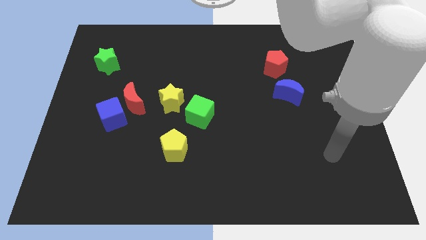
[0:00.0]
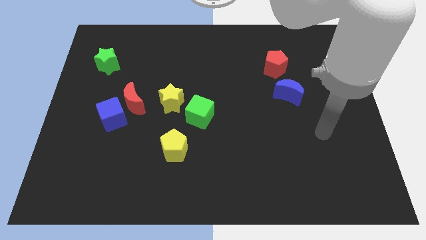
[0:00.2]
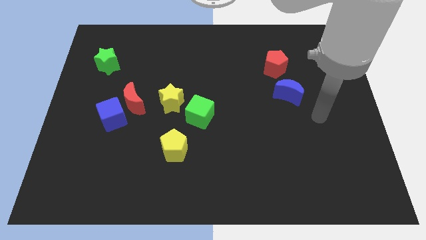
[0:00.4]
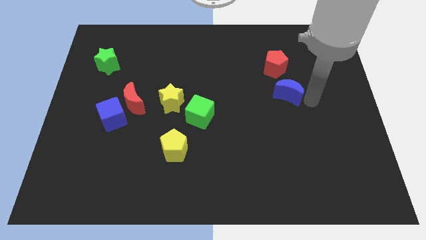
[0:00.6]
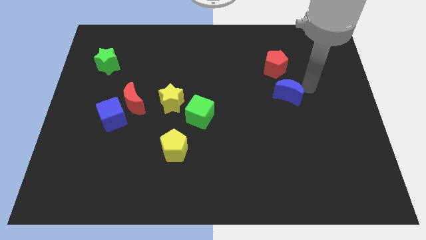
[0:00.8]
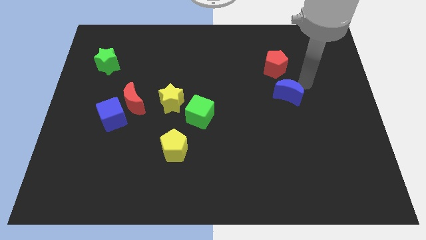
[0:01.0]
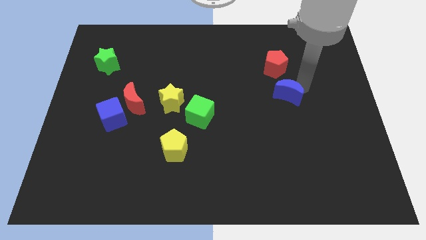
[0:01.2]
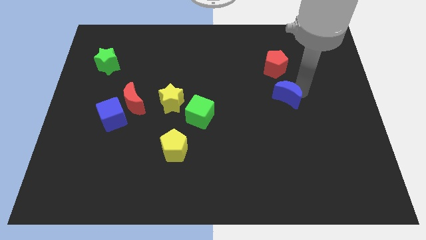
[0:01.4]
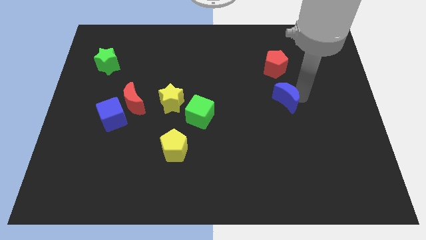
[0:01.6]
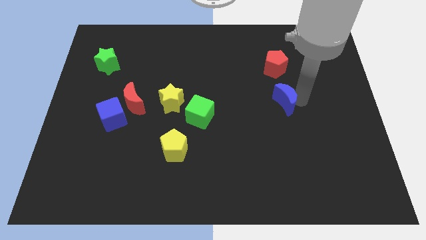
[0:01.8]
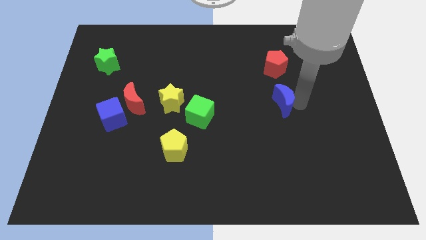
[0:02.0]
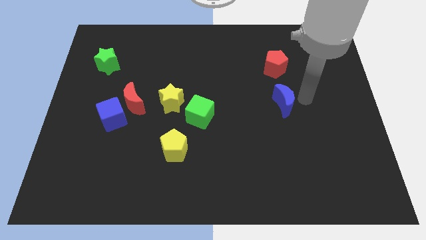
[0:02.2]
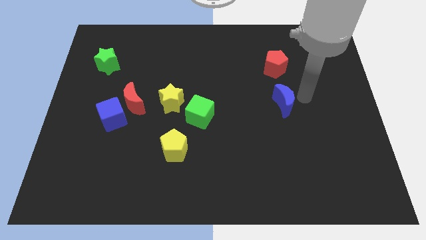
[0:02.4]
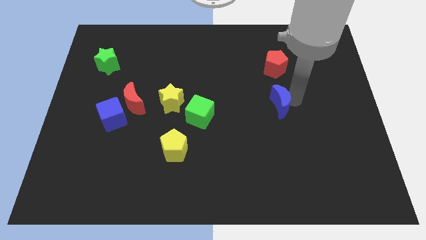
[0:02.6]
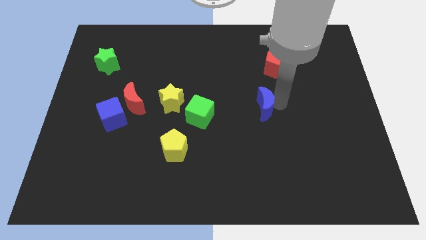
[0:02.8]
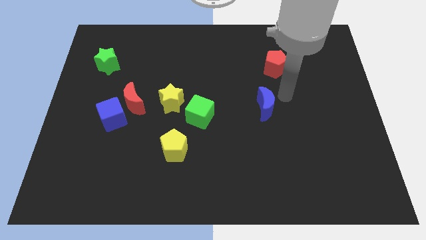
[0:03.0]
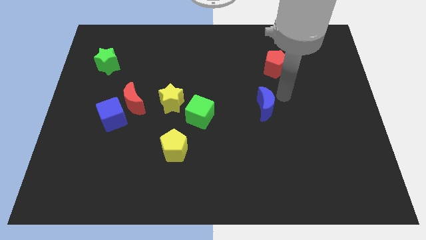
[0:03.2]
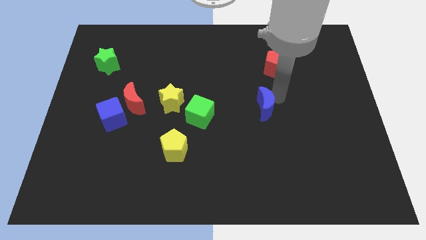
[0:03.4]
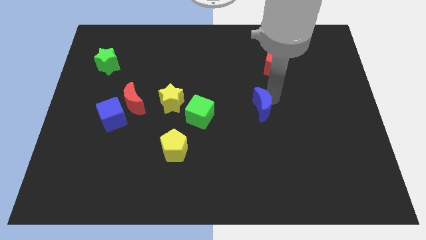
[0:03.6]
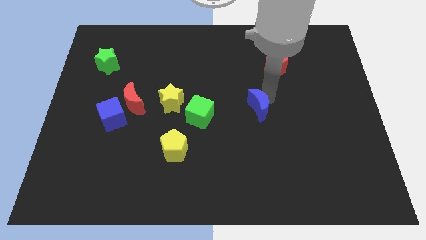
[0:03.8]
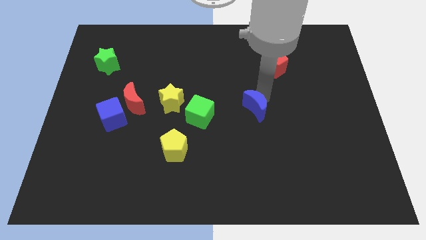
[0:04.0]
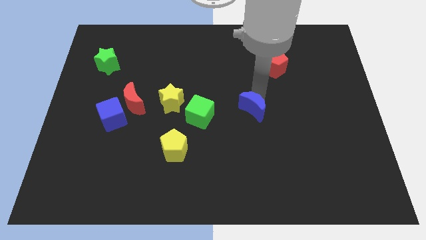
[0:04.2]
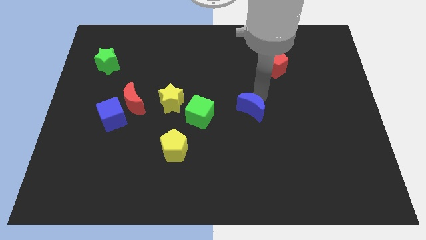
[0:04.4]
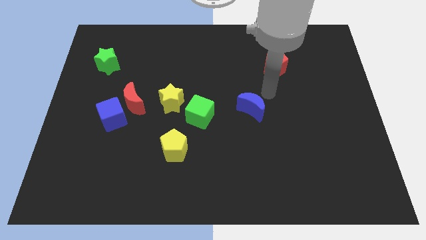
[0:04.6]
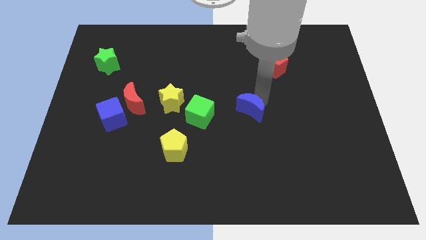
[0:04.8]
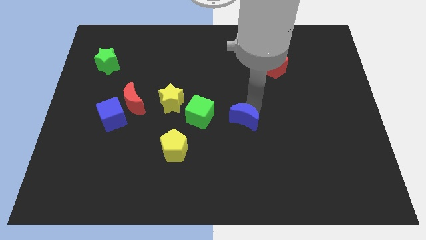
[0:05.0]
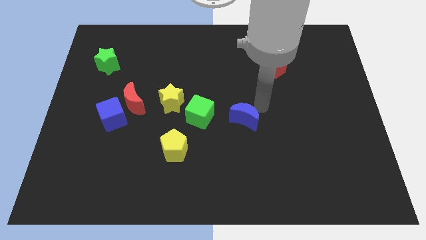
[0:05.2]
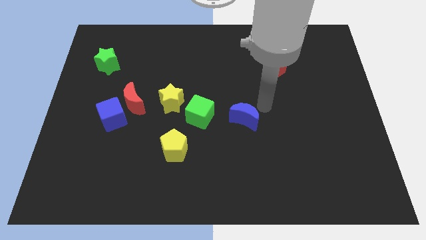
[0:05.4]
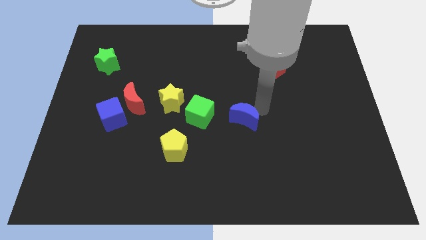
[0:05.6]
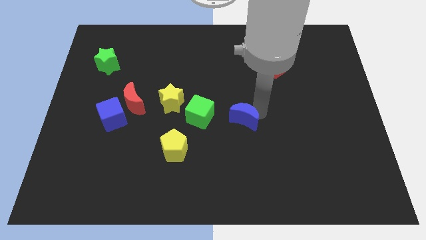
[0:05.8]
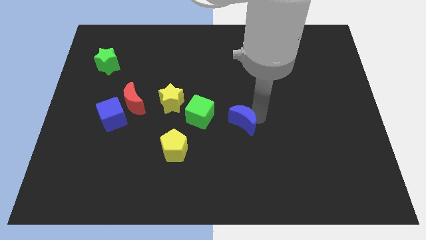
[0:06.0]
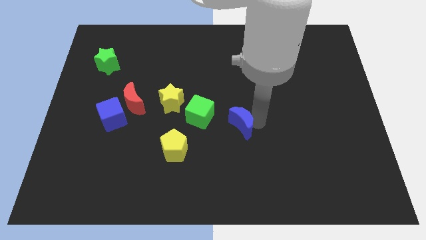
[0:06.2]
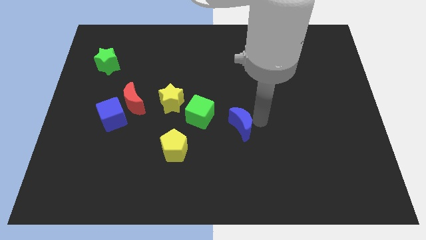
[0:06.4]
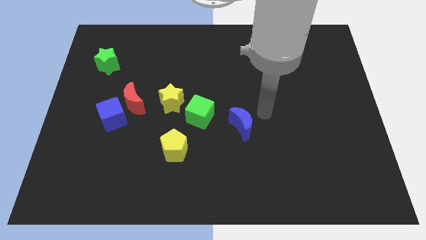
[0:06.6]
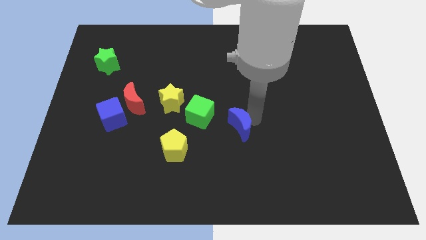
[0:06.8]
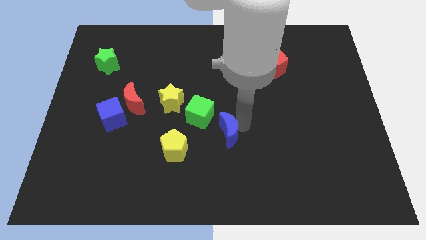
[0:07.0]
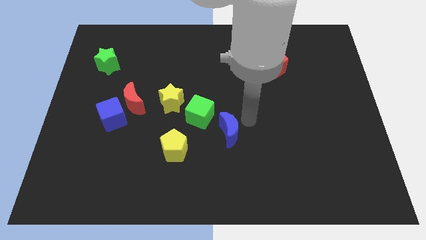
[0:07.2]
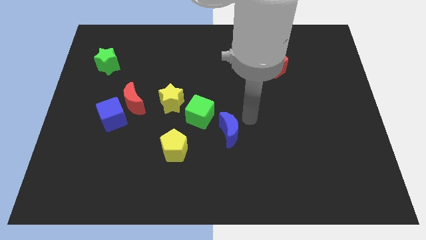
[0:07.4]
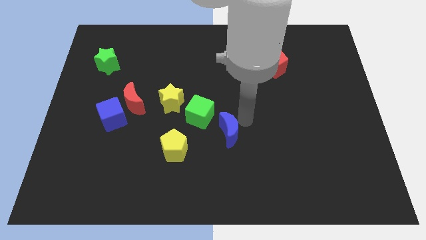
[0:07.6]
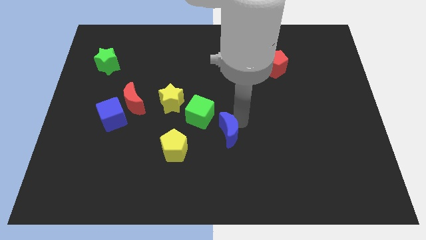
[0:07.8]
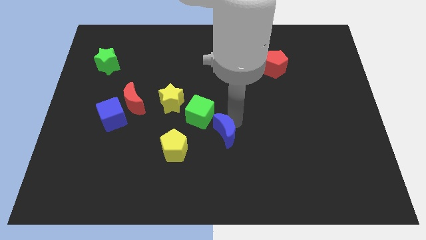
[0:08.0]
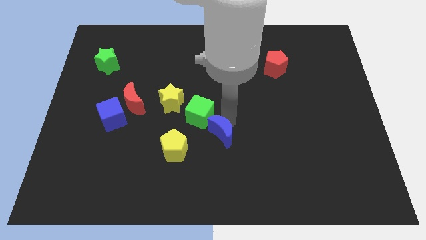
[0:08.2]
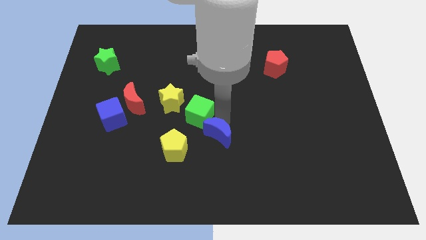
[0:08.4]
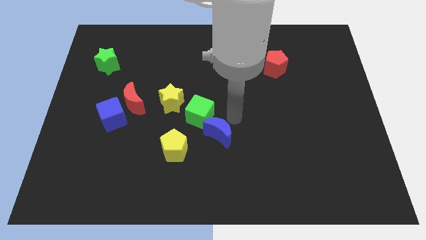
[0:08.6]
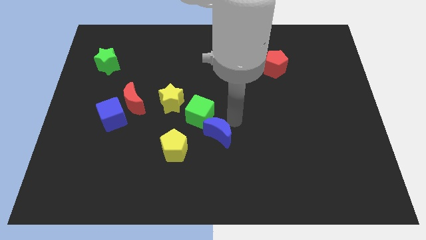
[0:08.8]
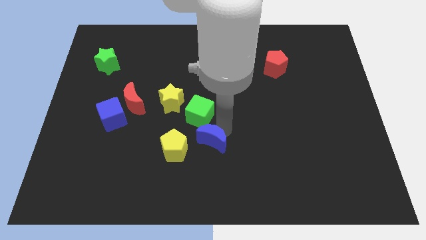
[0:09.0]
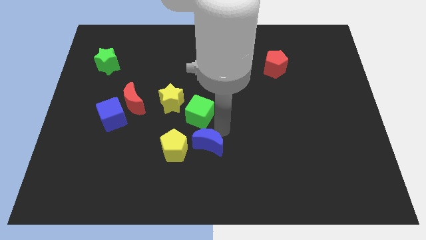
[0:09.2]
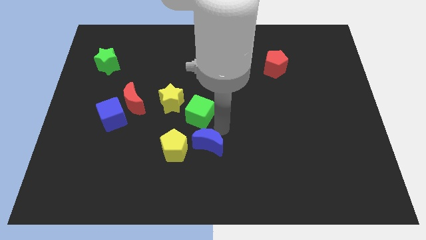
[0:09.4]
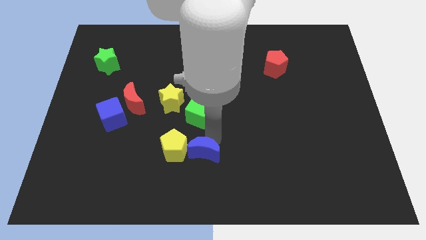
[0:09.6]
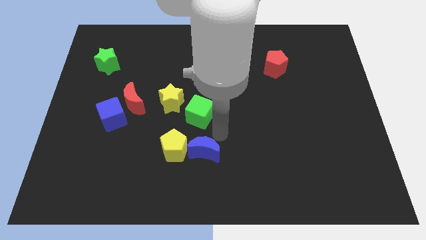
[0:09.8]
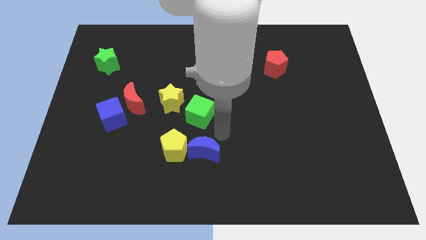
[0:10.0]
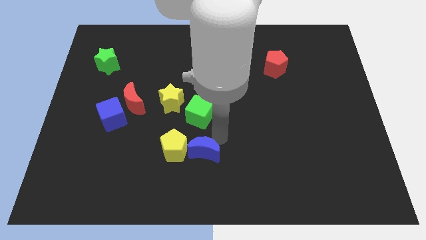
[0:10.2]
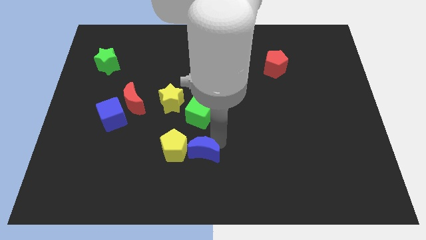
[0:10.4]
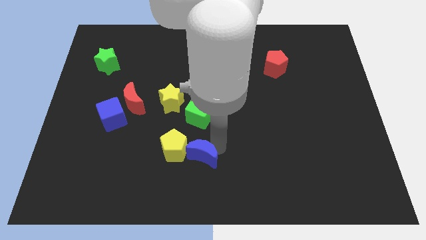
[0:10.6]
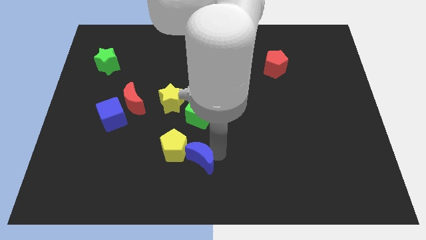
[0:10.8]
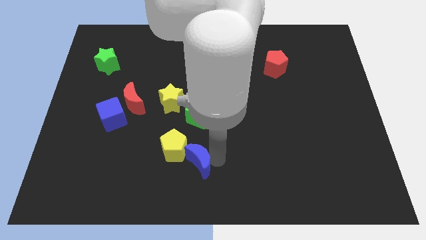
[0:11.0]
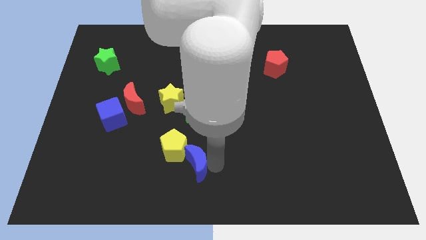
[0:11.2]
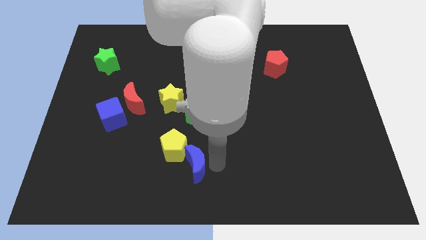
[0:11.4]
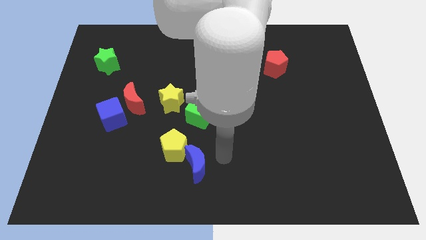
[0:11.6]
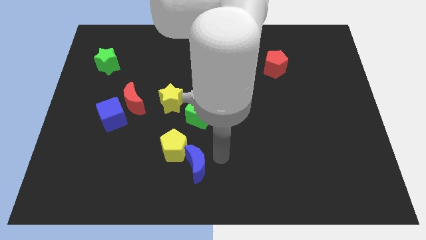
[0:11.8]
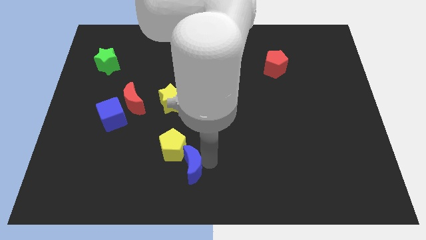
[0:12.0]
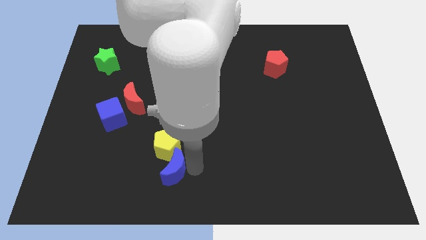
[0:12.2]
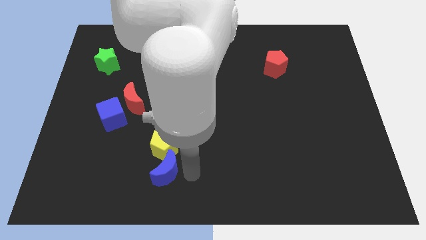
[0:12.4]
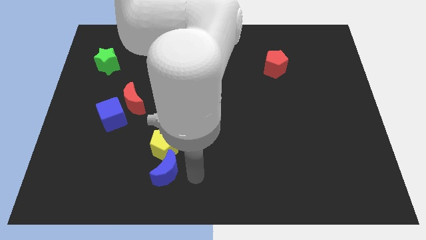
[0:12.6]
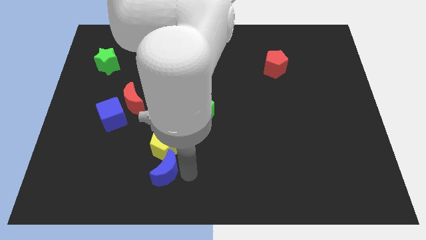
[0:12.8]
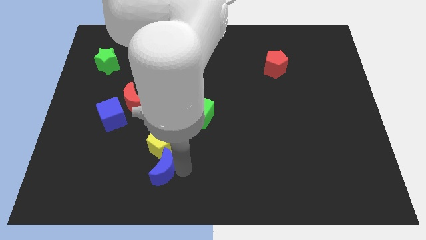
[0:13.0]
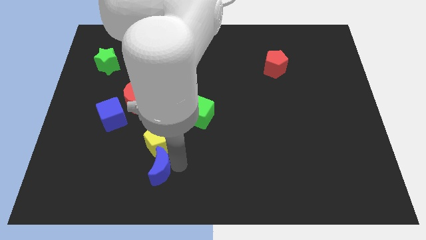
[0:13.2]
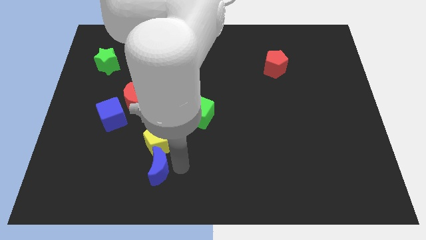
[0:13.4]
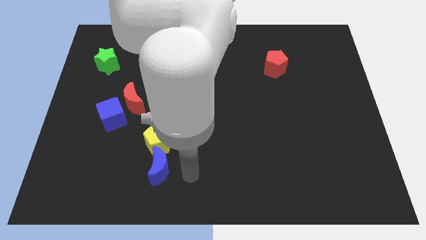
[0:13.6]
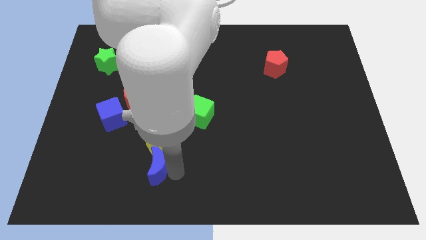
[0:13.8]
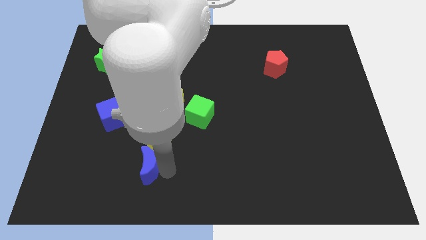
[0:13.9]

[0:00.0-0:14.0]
push the blue moon diagonally down and to the left of the yellow pentagon
